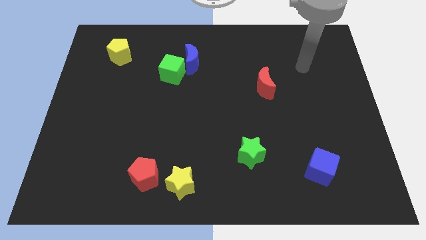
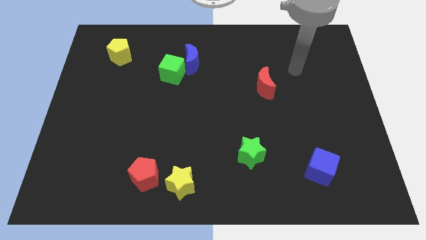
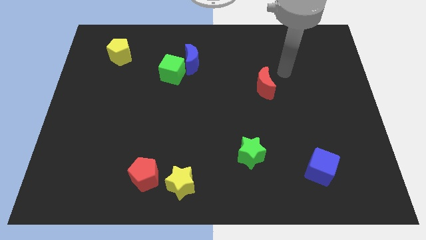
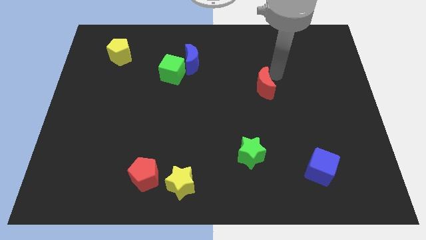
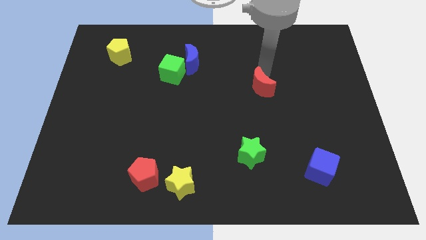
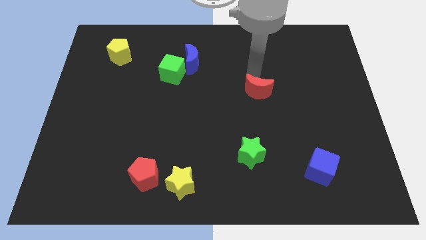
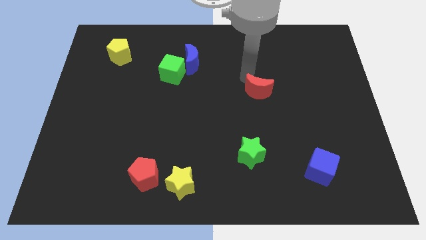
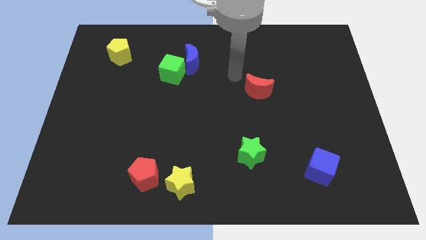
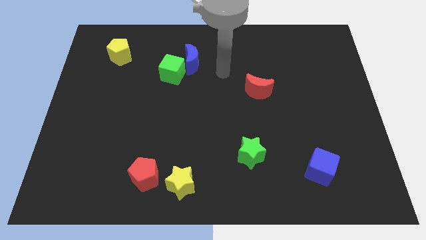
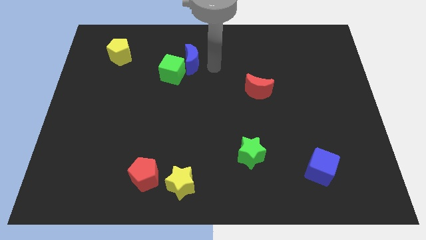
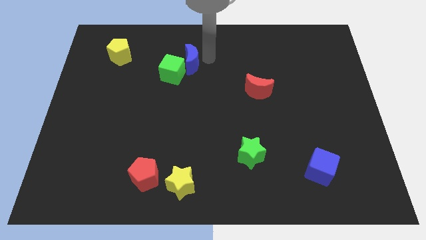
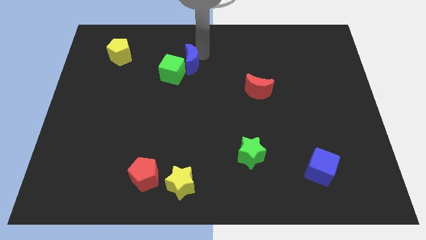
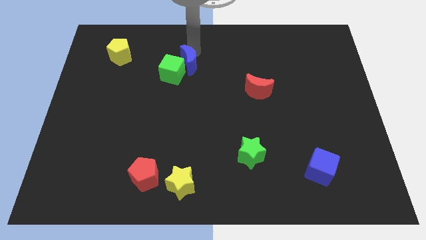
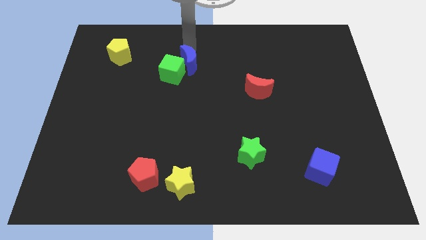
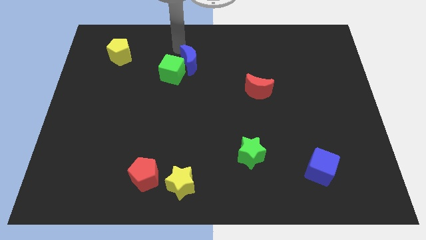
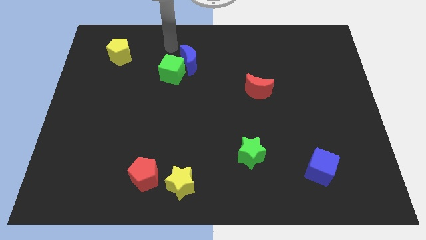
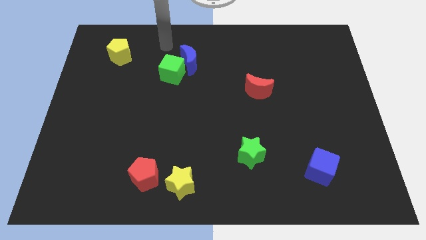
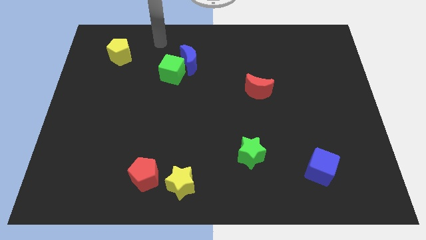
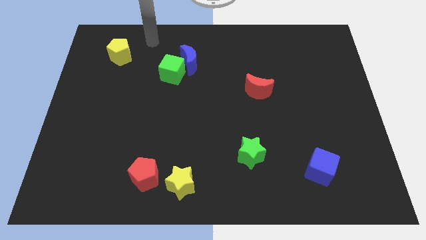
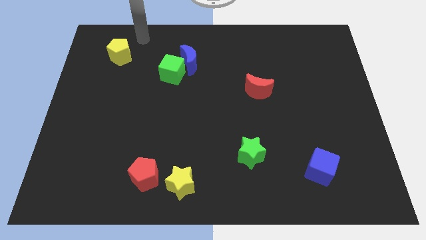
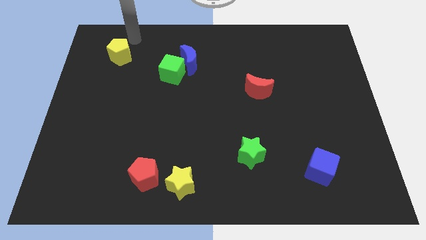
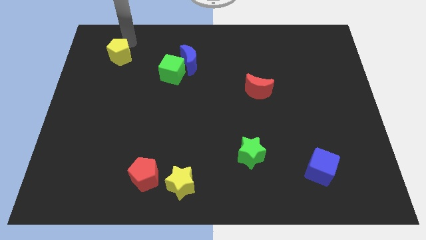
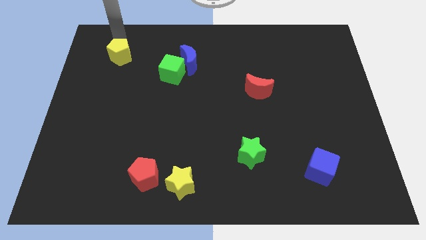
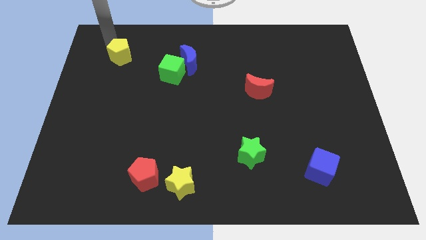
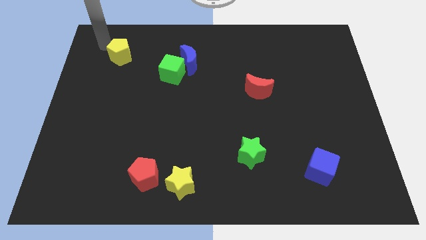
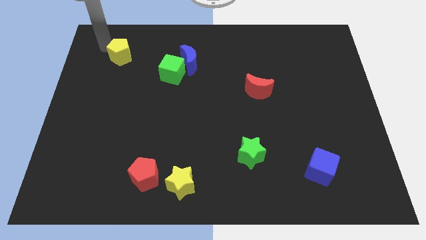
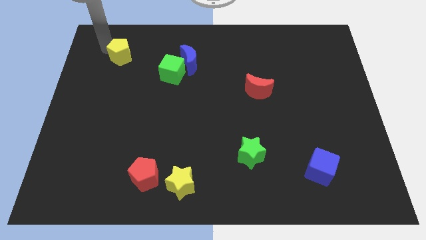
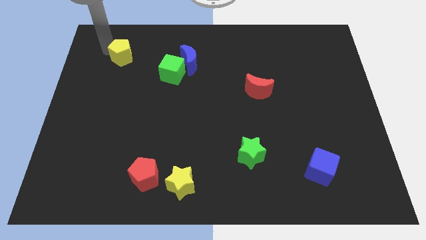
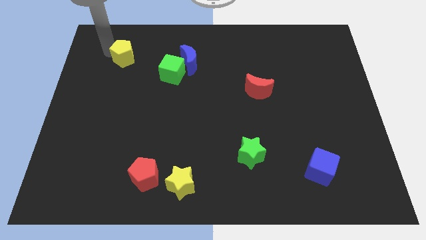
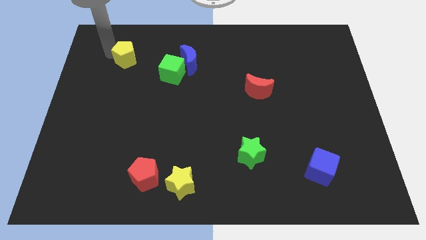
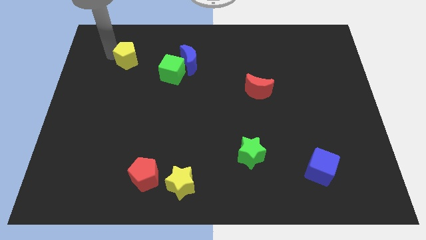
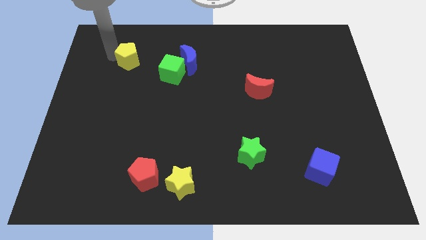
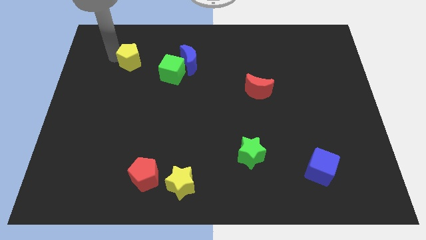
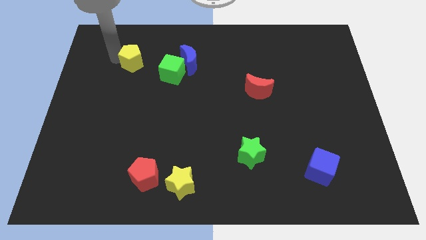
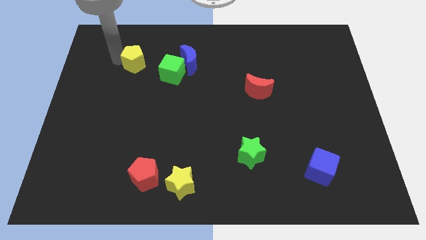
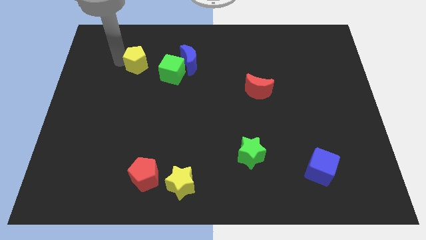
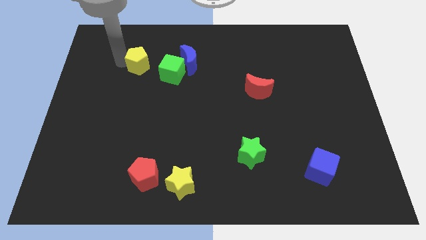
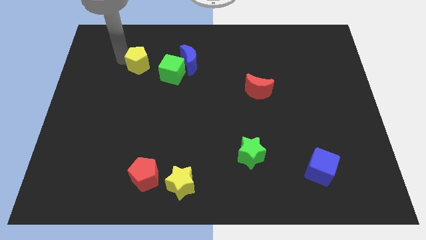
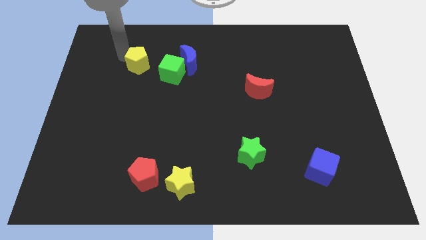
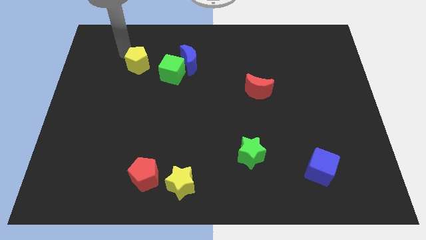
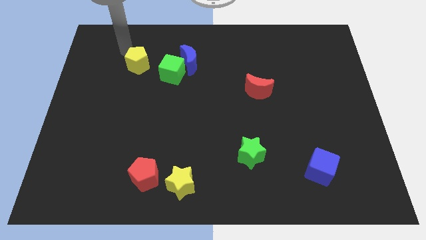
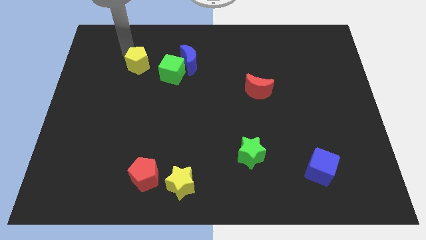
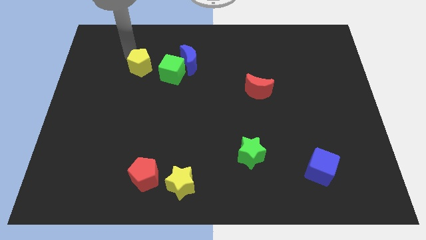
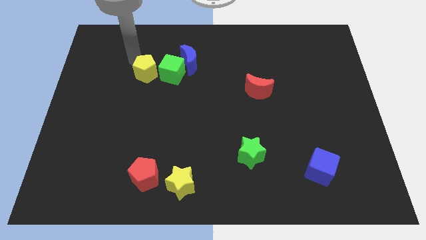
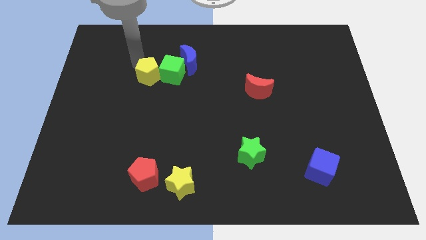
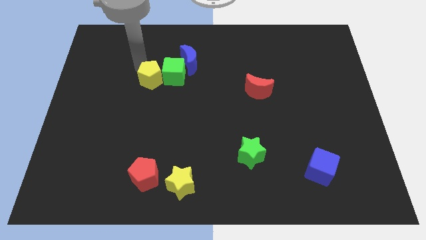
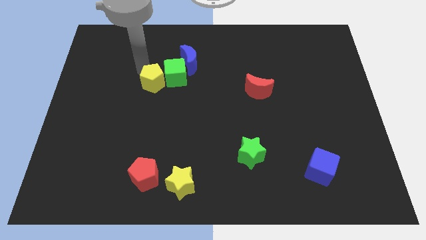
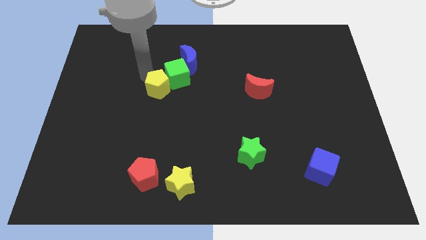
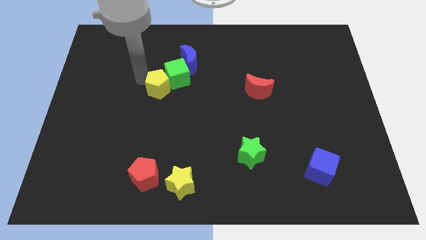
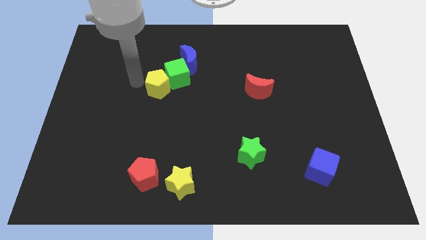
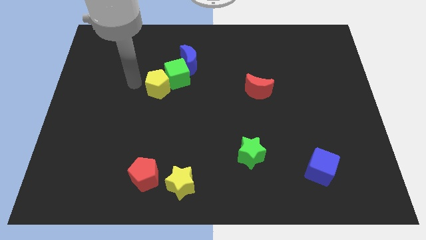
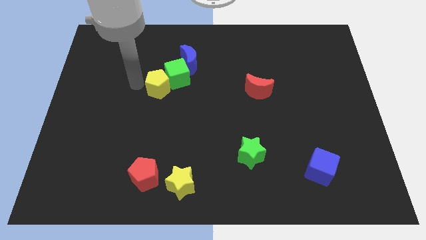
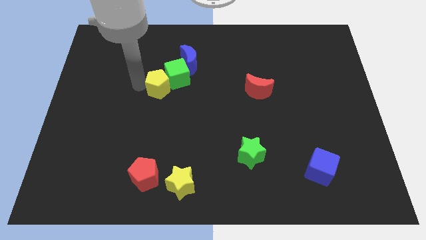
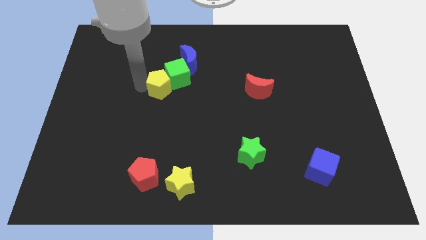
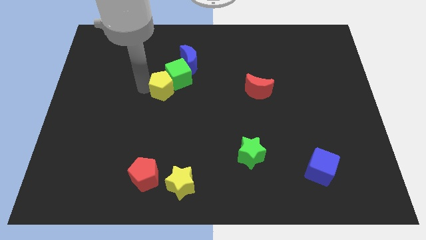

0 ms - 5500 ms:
move the yellow pentagon to the middle of the board

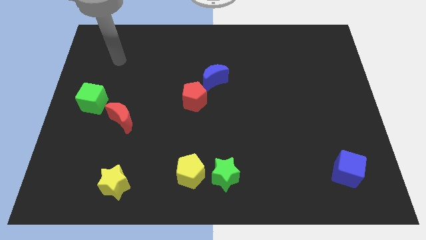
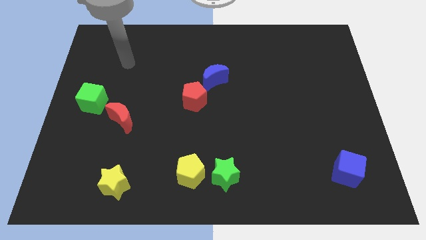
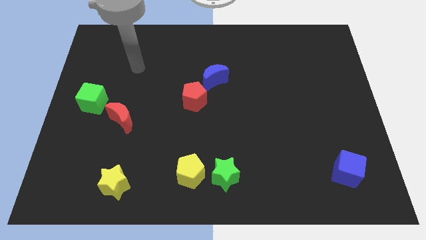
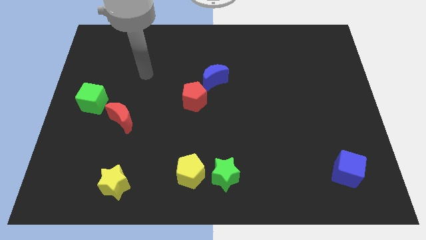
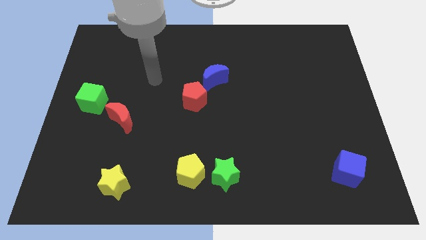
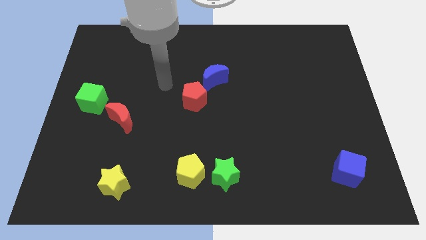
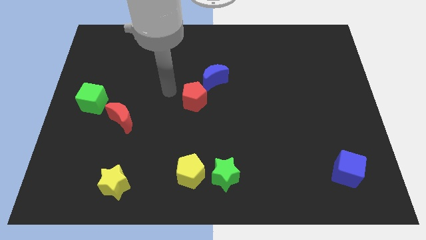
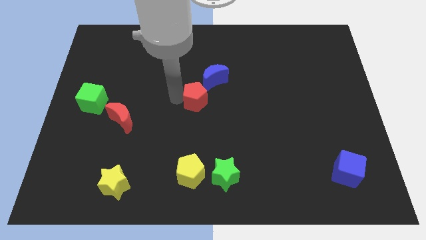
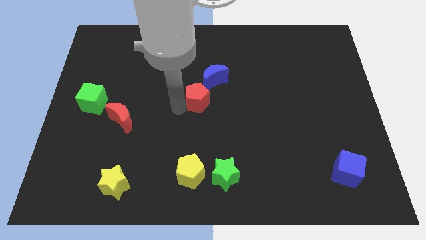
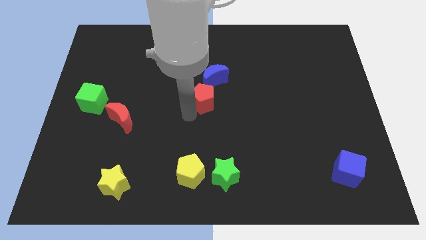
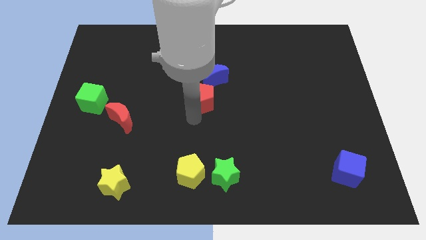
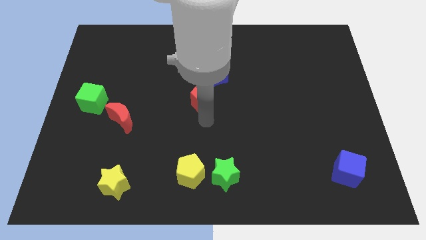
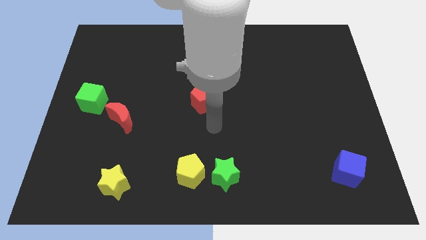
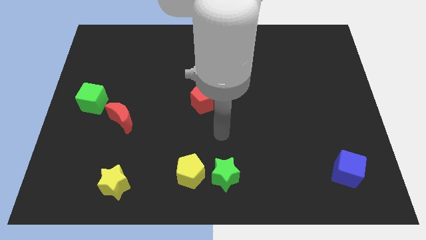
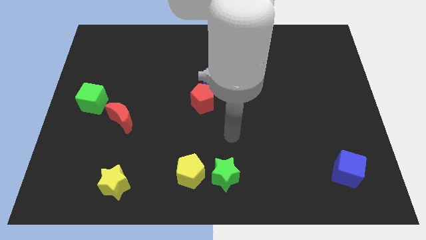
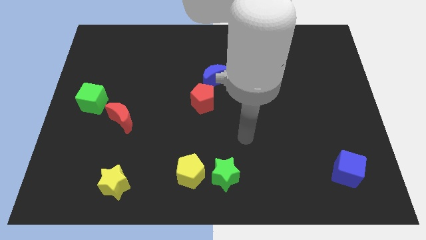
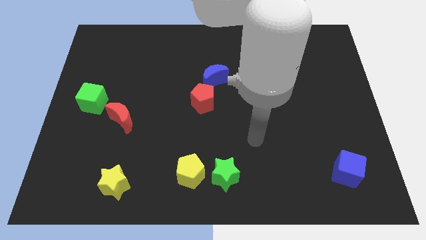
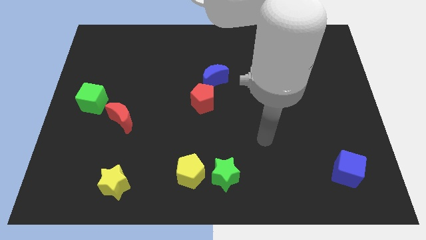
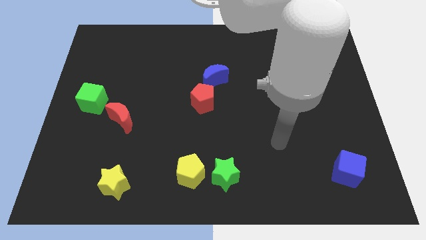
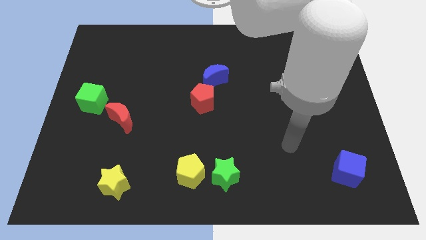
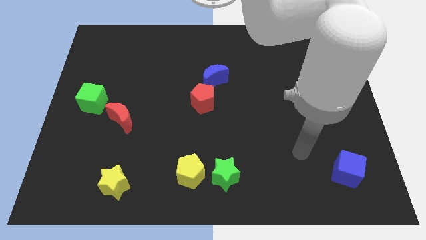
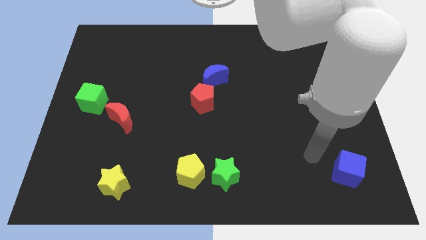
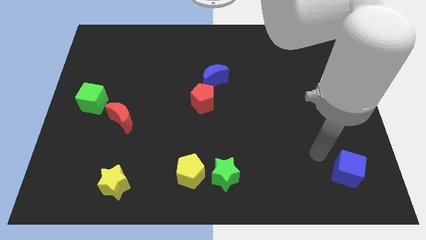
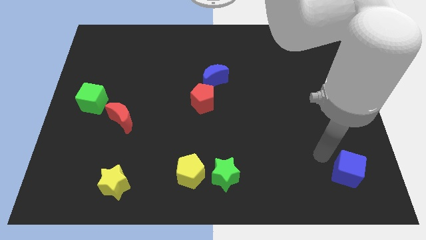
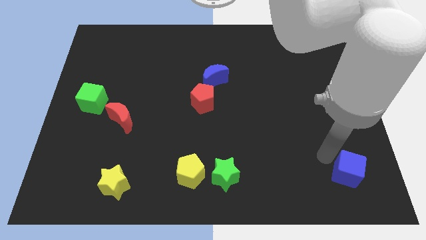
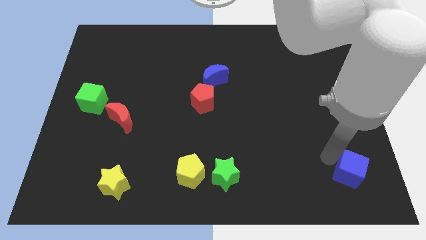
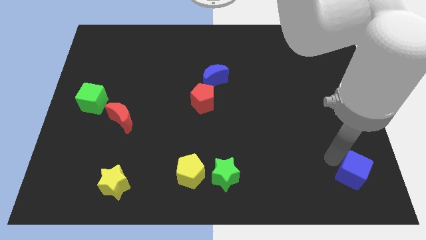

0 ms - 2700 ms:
put the blue cube to the lower right corner
